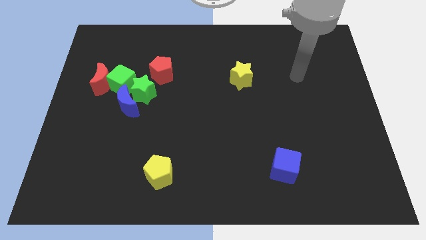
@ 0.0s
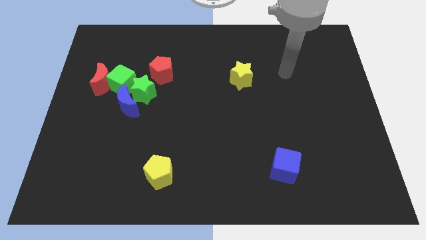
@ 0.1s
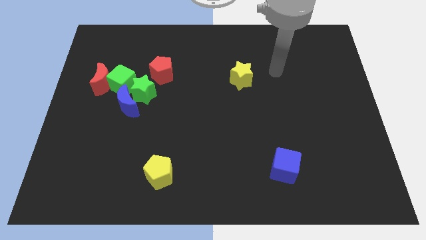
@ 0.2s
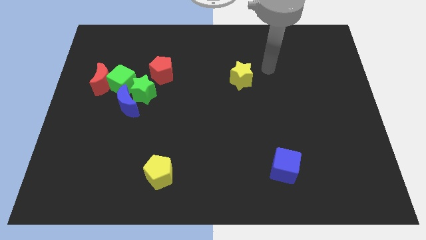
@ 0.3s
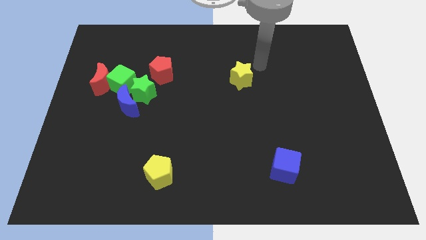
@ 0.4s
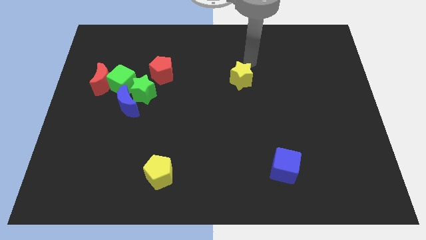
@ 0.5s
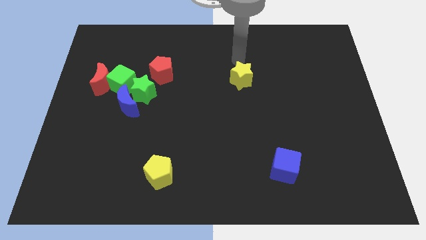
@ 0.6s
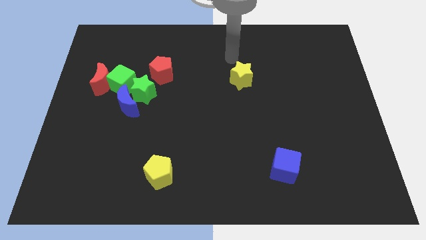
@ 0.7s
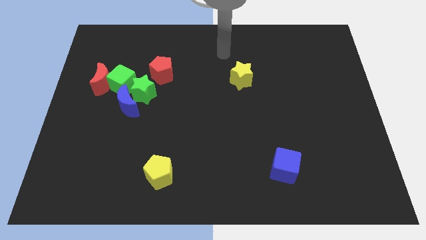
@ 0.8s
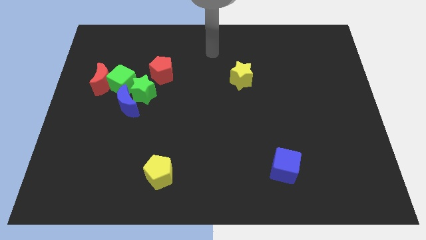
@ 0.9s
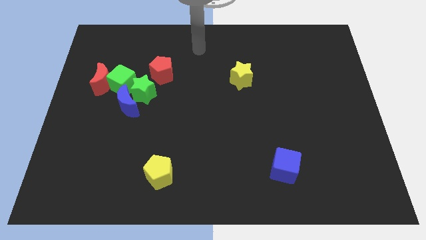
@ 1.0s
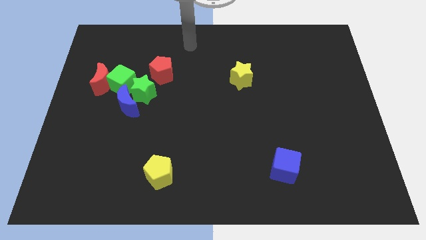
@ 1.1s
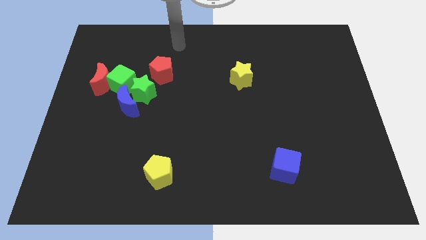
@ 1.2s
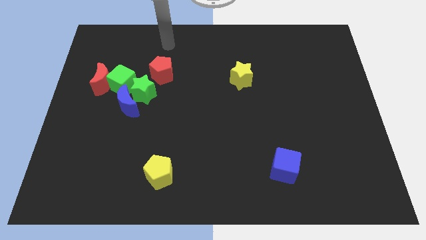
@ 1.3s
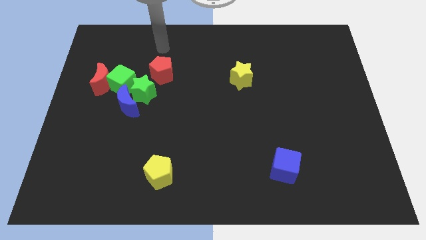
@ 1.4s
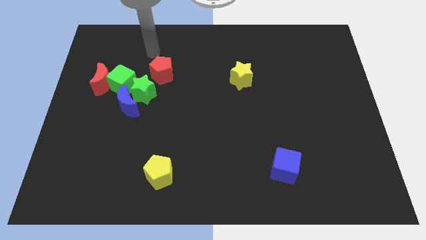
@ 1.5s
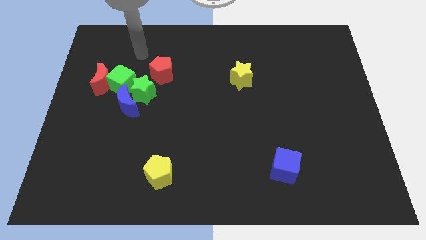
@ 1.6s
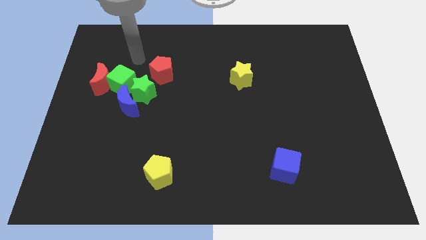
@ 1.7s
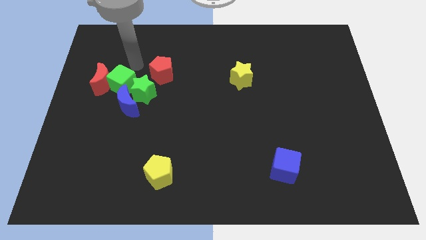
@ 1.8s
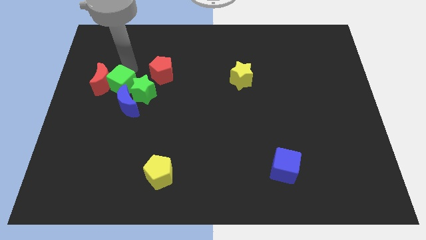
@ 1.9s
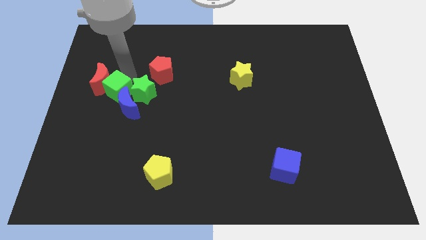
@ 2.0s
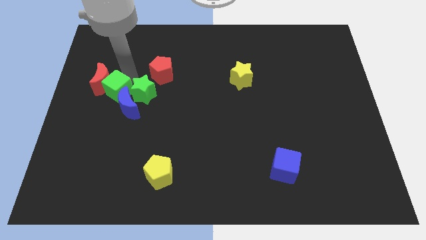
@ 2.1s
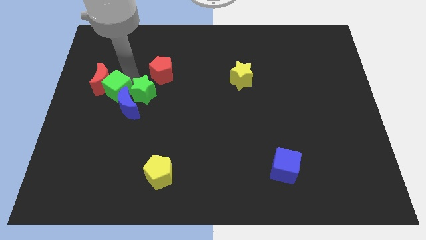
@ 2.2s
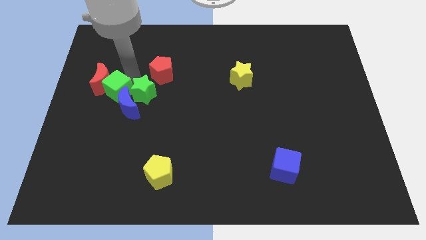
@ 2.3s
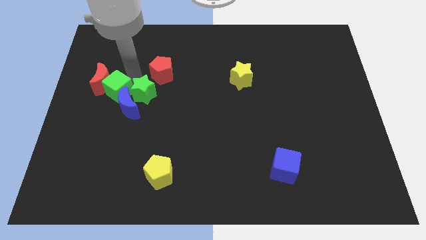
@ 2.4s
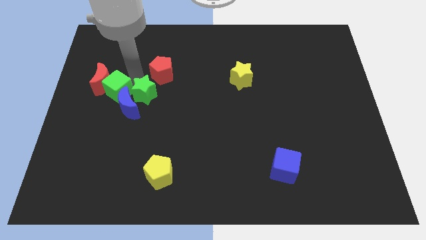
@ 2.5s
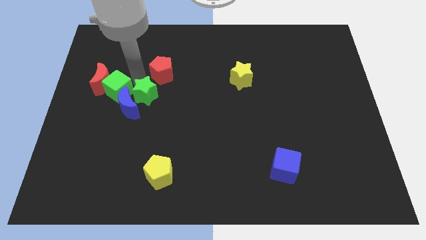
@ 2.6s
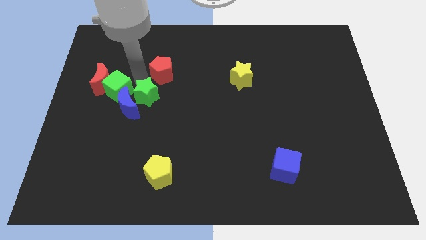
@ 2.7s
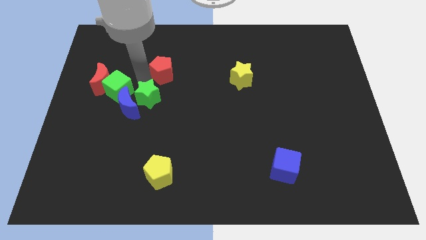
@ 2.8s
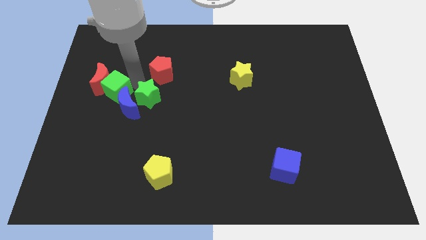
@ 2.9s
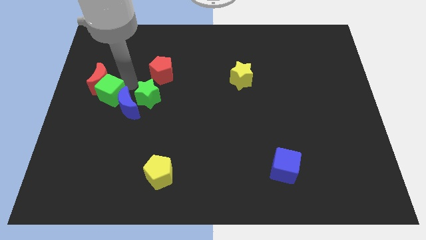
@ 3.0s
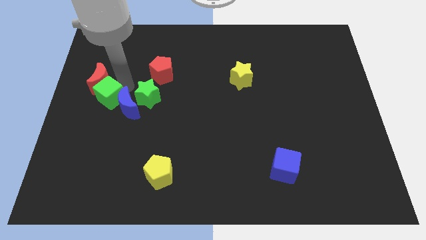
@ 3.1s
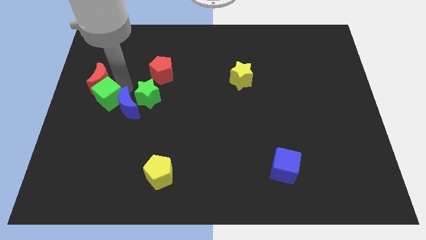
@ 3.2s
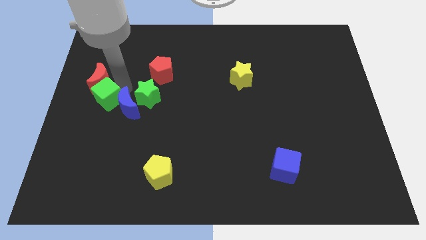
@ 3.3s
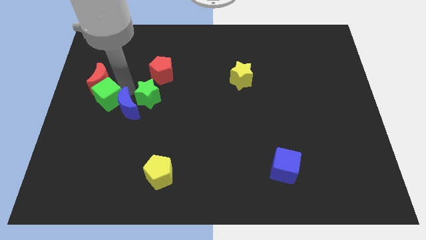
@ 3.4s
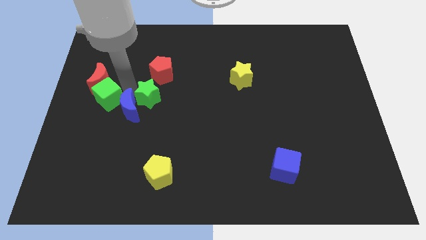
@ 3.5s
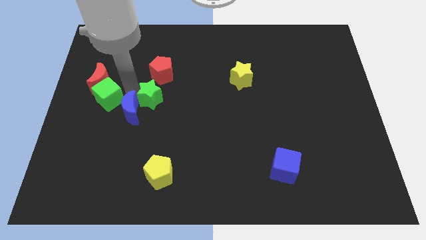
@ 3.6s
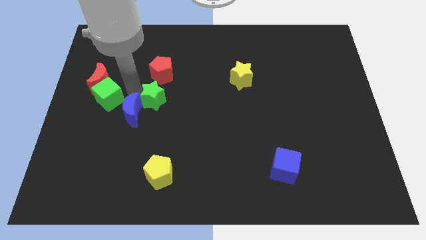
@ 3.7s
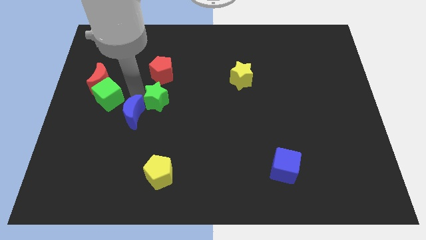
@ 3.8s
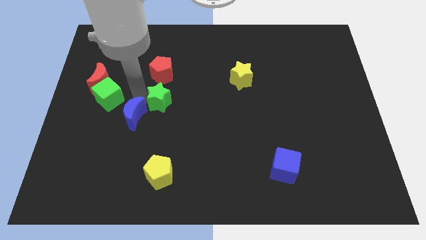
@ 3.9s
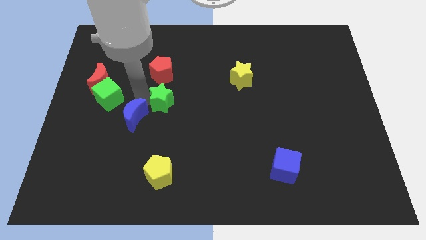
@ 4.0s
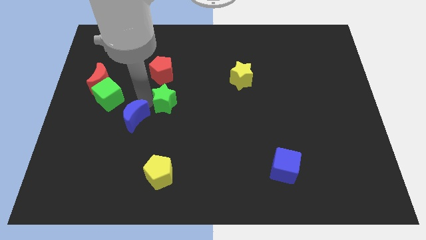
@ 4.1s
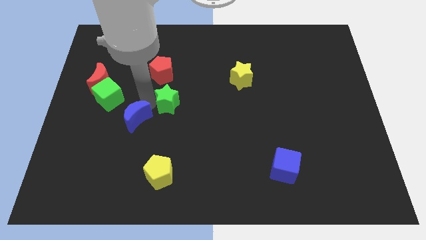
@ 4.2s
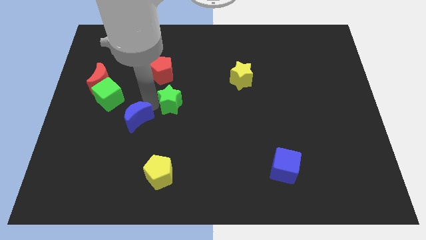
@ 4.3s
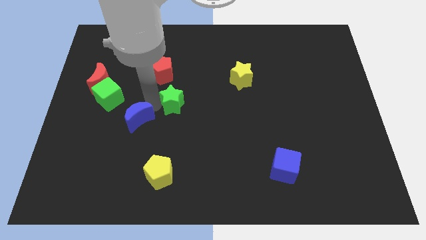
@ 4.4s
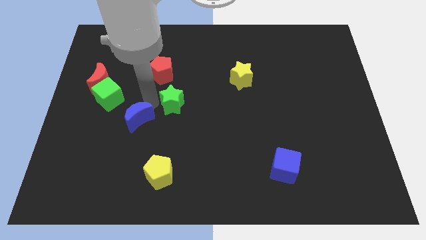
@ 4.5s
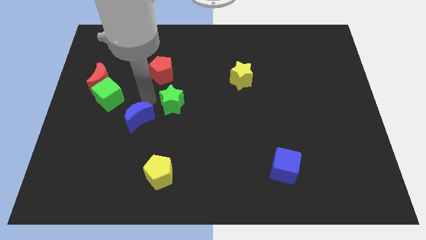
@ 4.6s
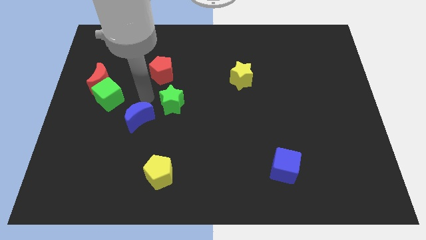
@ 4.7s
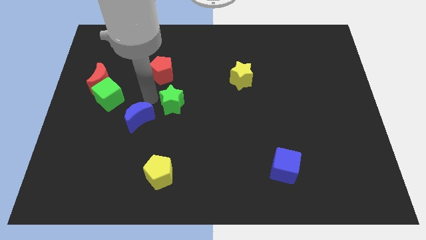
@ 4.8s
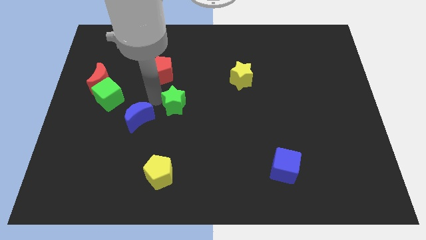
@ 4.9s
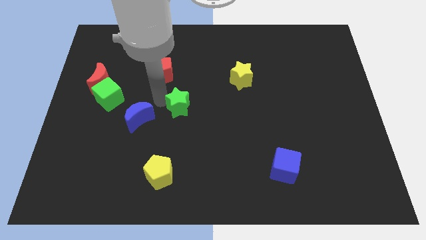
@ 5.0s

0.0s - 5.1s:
move the green star away from the clump

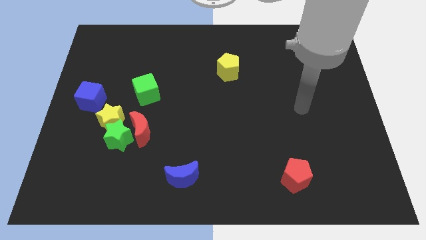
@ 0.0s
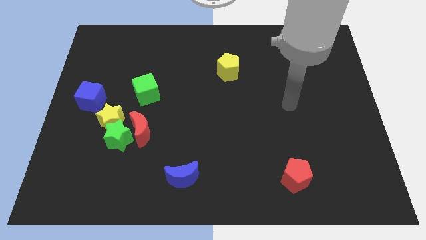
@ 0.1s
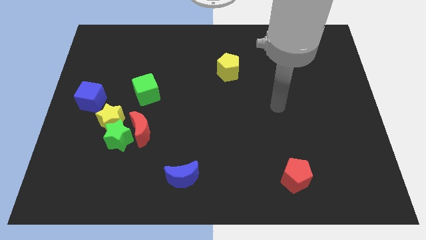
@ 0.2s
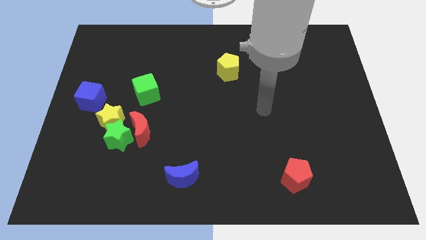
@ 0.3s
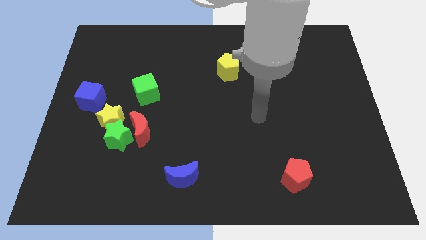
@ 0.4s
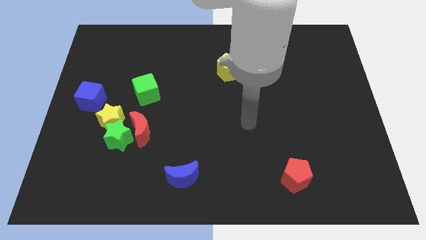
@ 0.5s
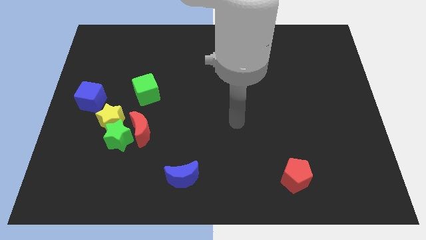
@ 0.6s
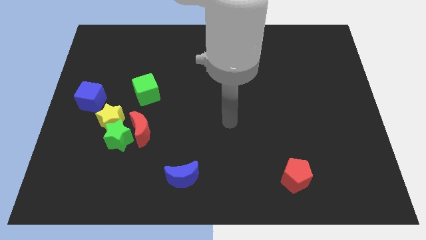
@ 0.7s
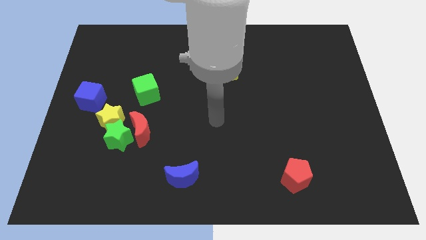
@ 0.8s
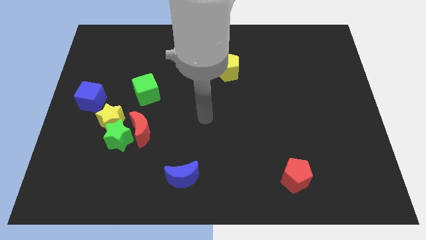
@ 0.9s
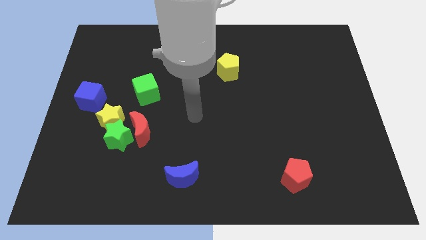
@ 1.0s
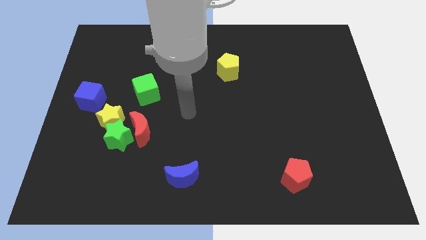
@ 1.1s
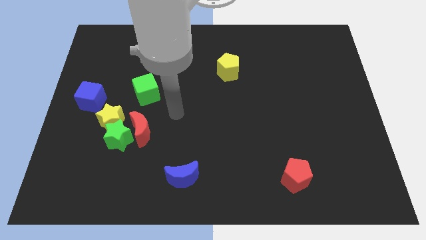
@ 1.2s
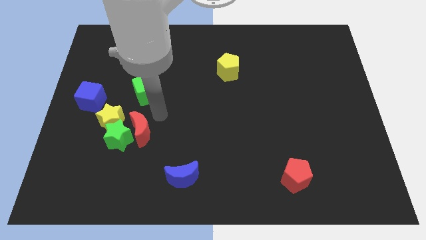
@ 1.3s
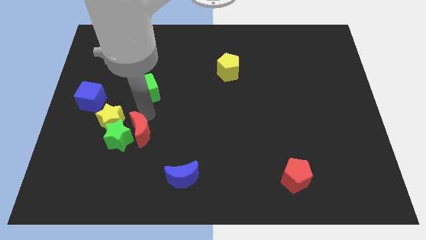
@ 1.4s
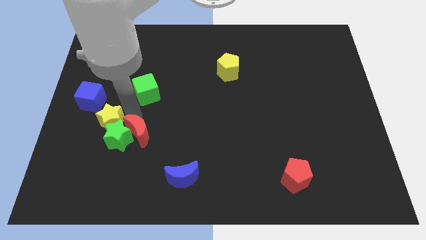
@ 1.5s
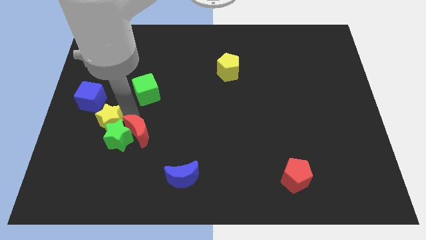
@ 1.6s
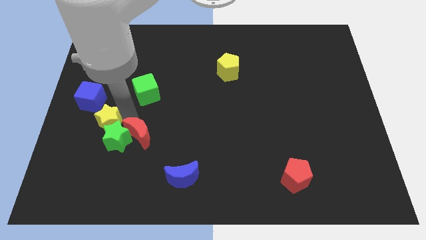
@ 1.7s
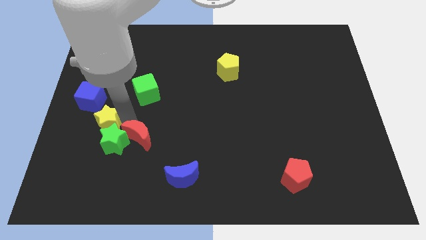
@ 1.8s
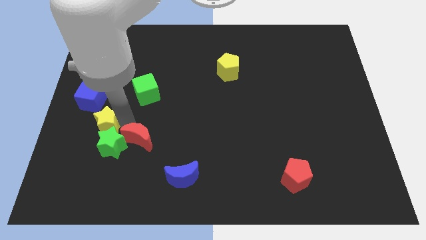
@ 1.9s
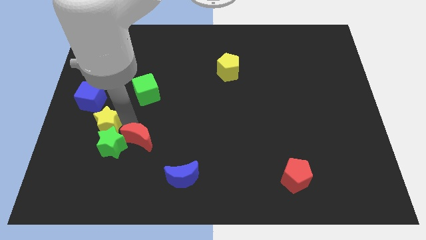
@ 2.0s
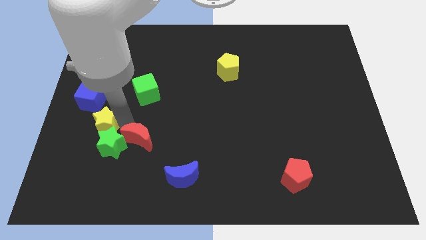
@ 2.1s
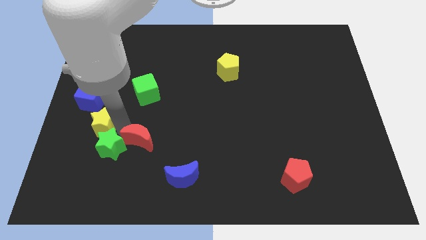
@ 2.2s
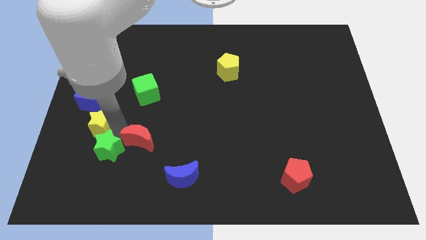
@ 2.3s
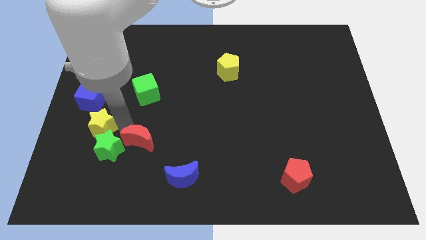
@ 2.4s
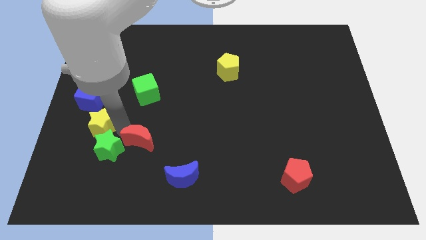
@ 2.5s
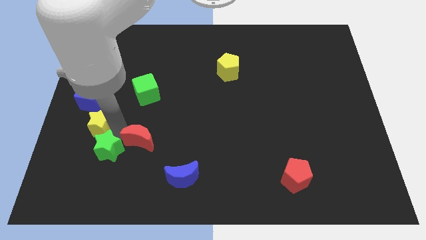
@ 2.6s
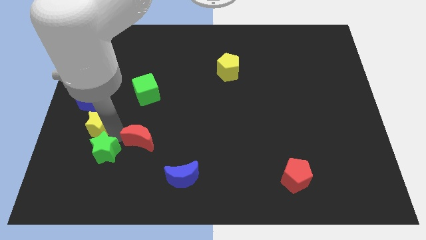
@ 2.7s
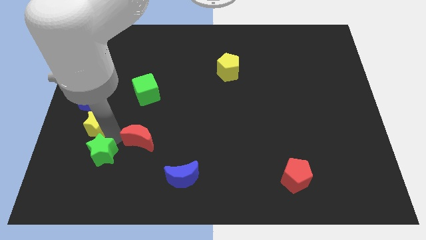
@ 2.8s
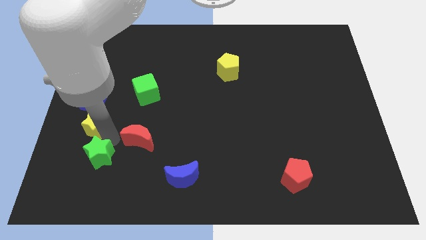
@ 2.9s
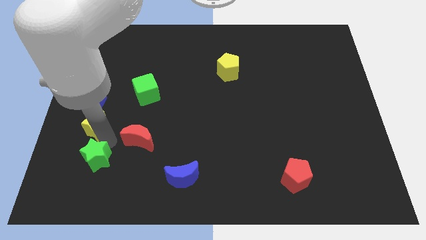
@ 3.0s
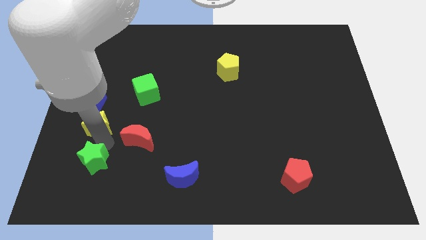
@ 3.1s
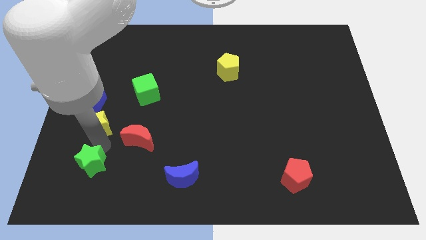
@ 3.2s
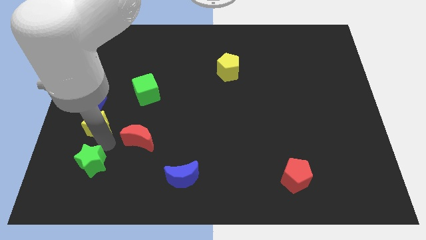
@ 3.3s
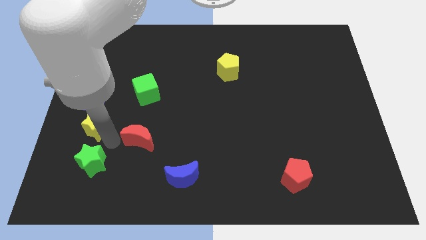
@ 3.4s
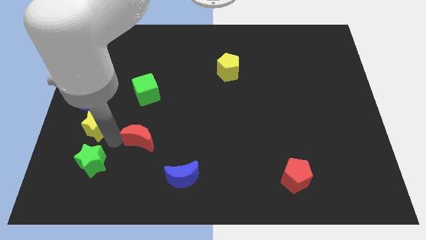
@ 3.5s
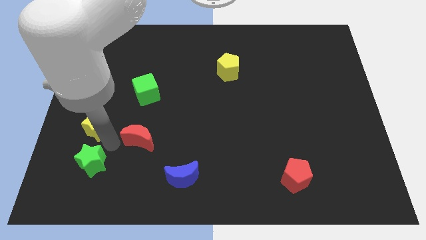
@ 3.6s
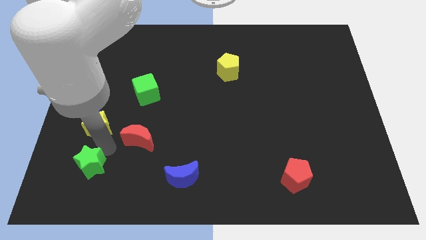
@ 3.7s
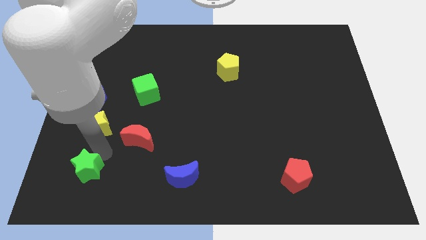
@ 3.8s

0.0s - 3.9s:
pull the green star apart from the red moon and yellow star

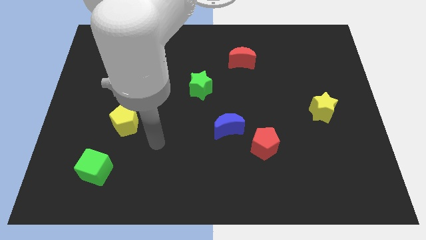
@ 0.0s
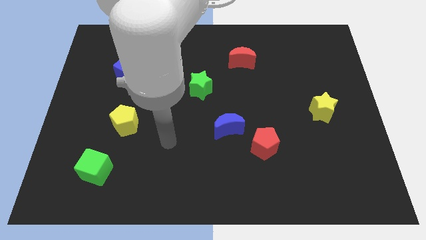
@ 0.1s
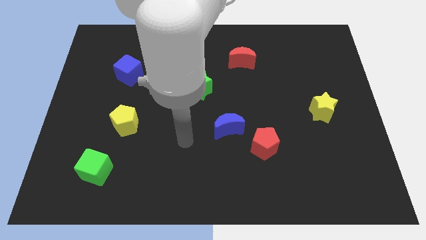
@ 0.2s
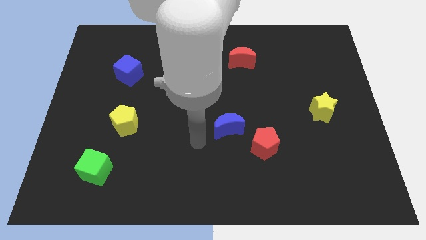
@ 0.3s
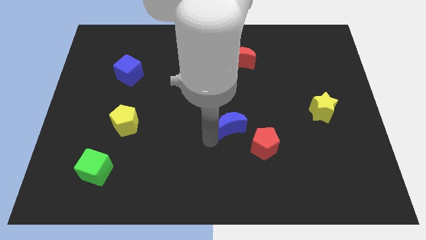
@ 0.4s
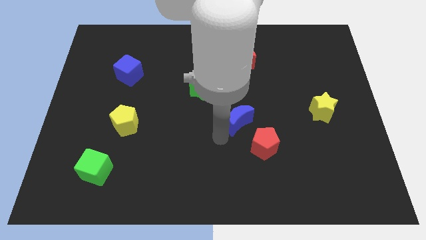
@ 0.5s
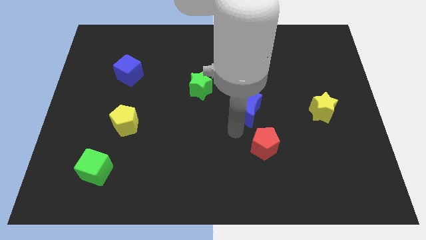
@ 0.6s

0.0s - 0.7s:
separate the red pentagon from the blue moon
